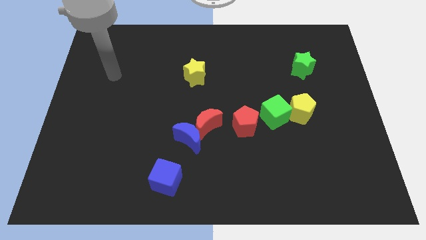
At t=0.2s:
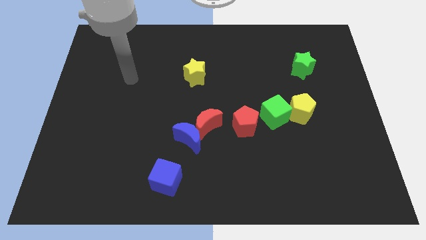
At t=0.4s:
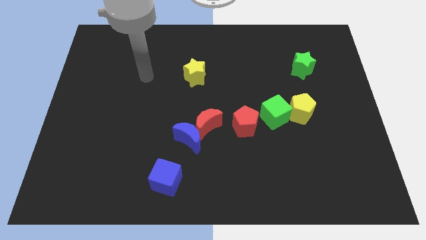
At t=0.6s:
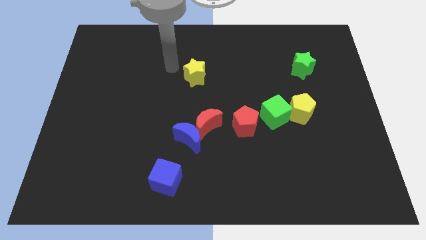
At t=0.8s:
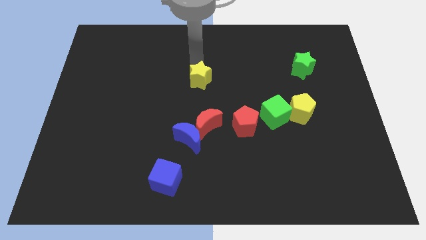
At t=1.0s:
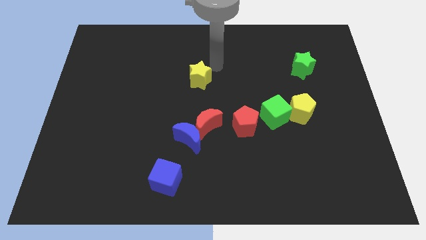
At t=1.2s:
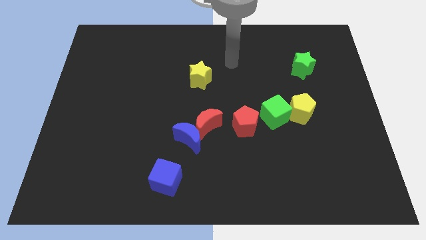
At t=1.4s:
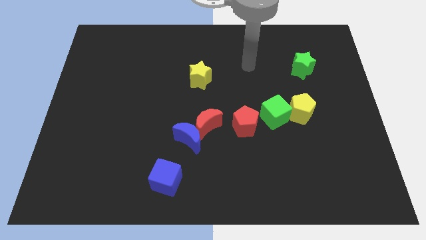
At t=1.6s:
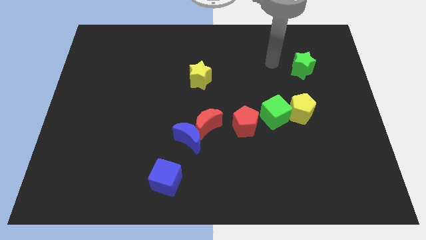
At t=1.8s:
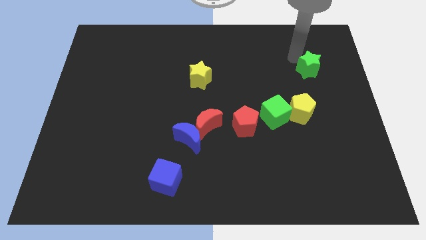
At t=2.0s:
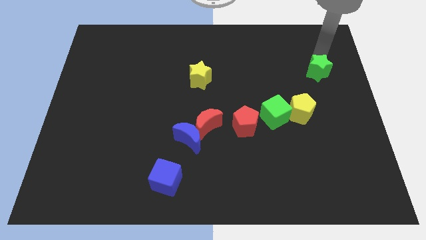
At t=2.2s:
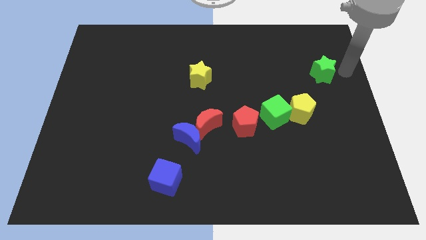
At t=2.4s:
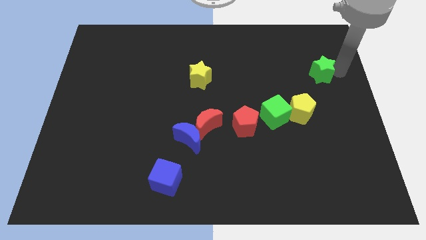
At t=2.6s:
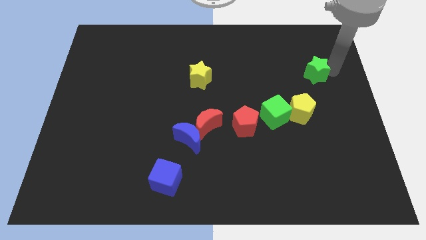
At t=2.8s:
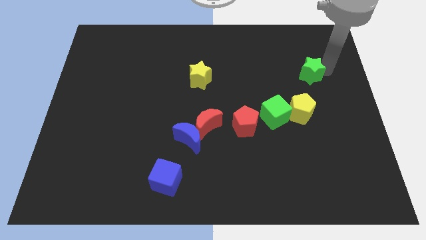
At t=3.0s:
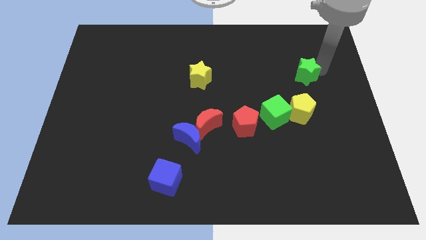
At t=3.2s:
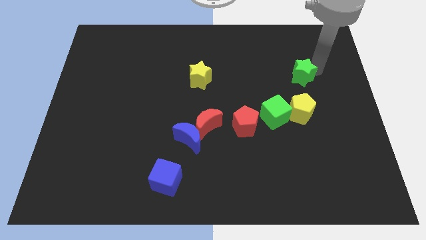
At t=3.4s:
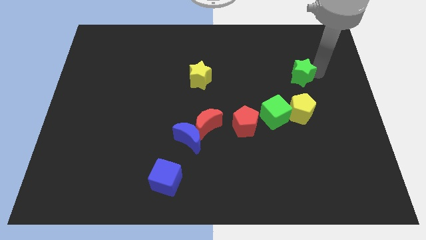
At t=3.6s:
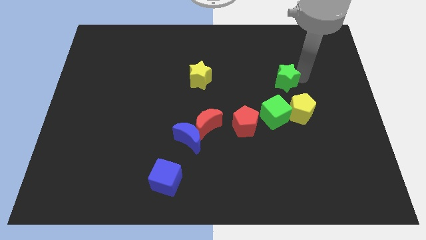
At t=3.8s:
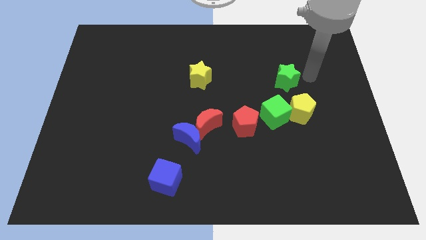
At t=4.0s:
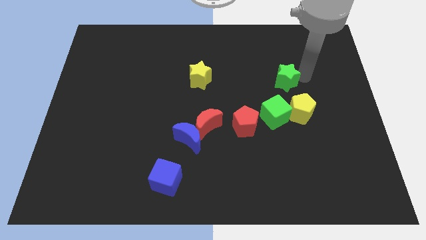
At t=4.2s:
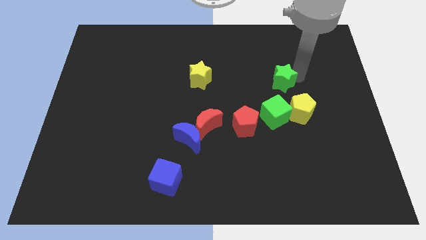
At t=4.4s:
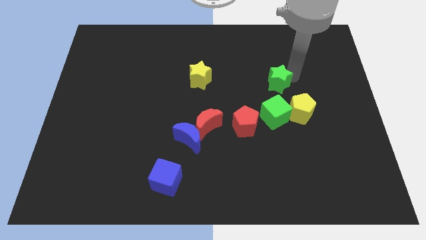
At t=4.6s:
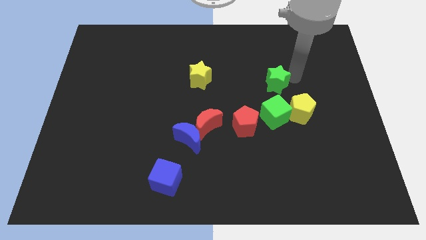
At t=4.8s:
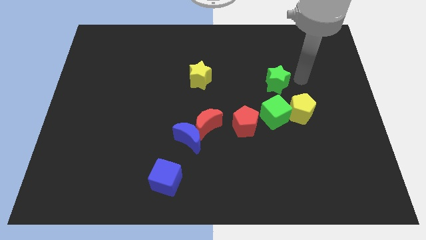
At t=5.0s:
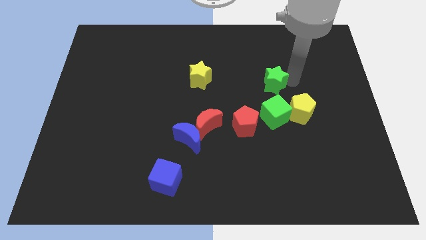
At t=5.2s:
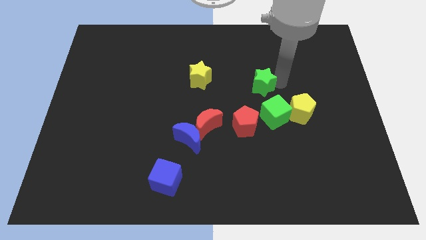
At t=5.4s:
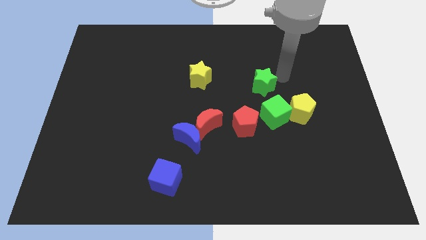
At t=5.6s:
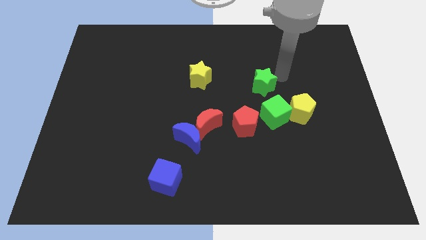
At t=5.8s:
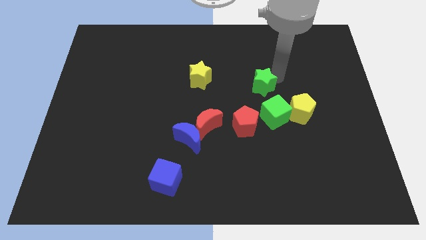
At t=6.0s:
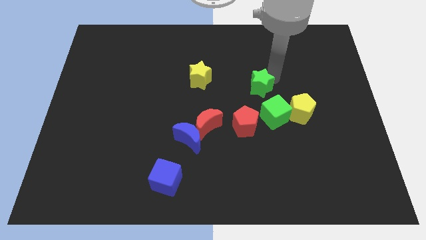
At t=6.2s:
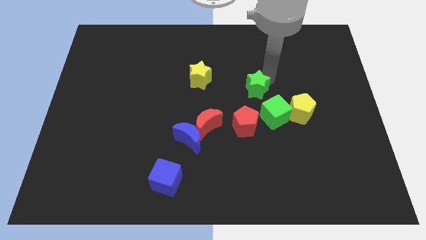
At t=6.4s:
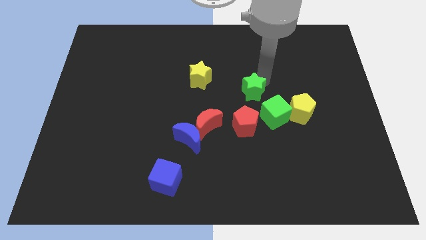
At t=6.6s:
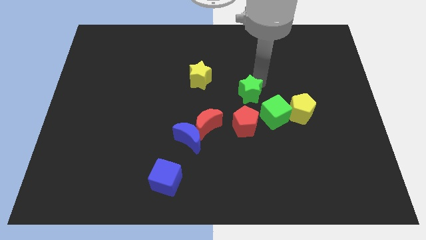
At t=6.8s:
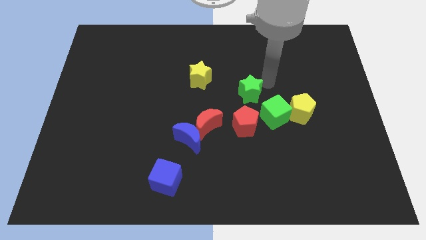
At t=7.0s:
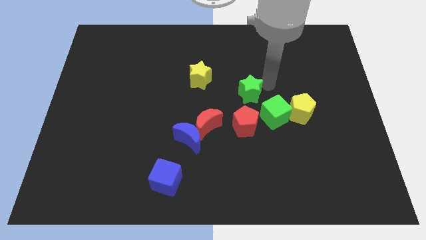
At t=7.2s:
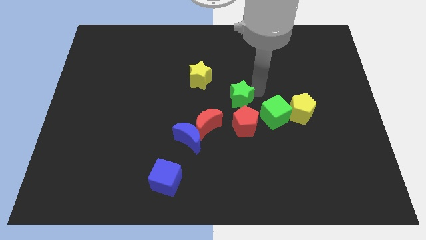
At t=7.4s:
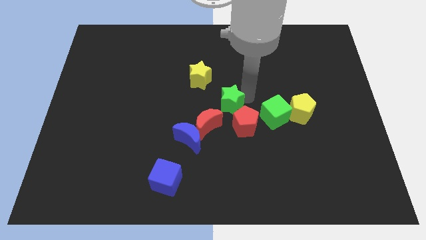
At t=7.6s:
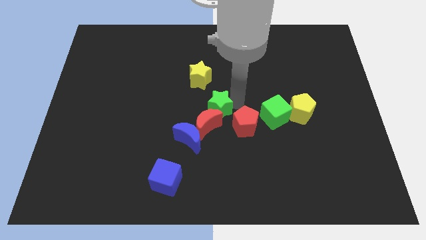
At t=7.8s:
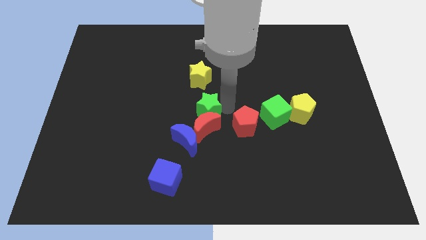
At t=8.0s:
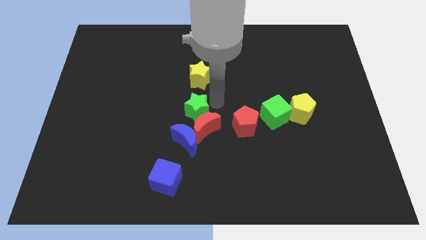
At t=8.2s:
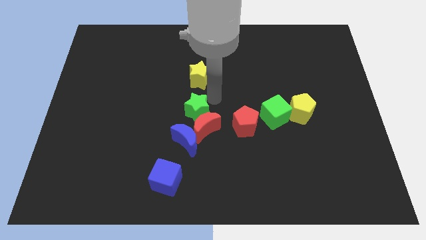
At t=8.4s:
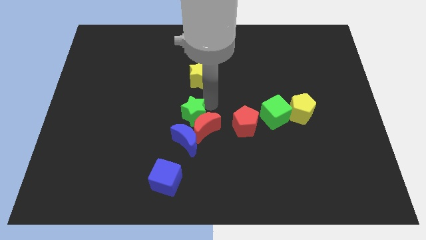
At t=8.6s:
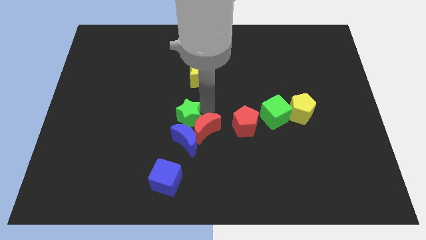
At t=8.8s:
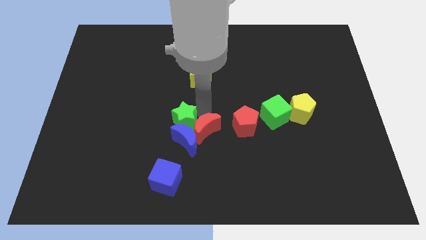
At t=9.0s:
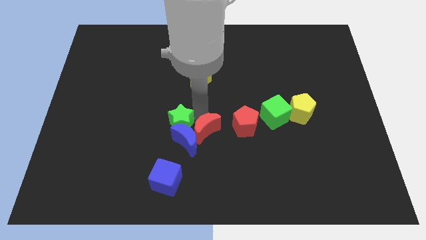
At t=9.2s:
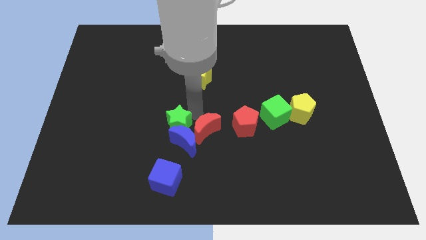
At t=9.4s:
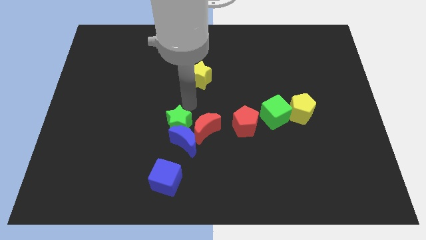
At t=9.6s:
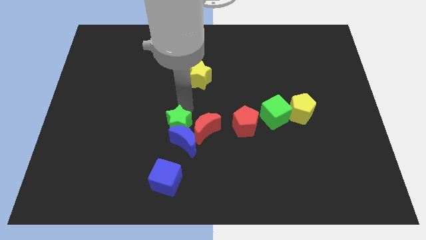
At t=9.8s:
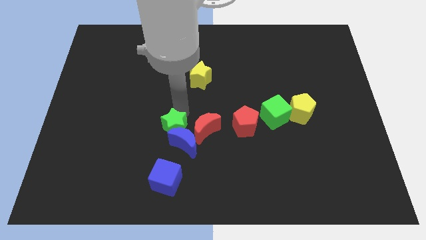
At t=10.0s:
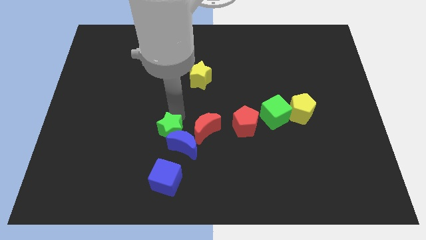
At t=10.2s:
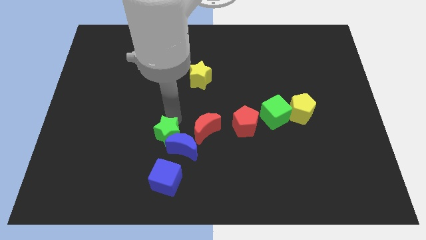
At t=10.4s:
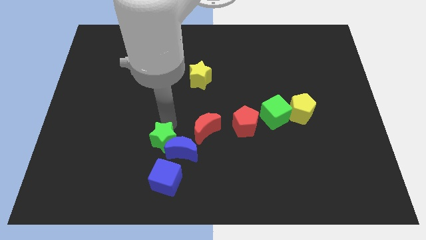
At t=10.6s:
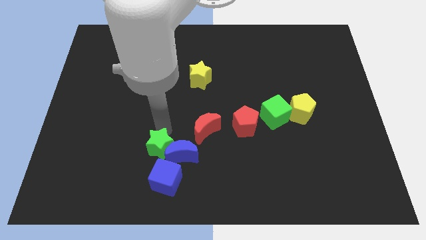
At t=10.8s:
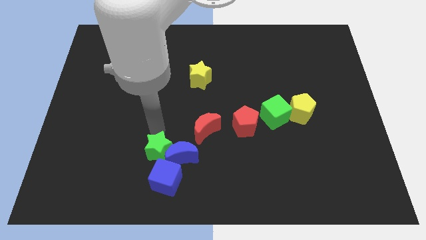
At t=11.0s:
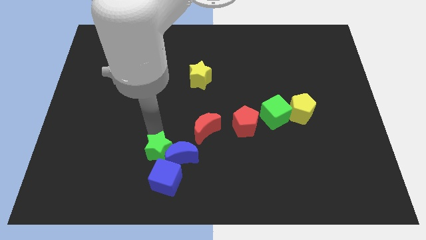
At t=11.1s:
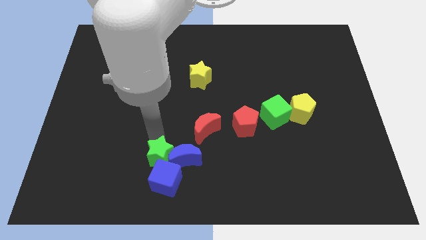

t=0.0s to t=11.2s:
move the green star next to the blue cube

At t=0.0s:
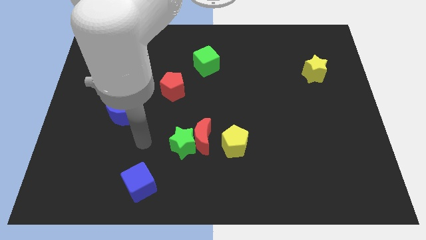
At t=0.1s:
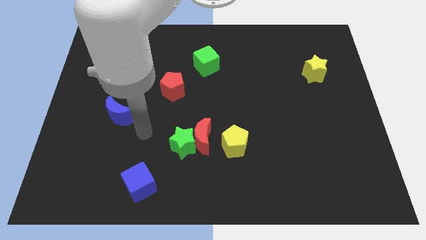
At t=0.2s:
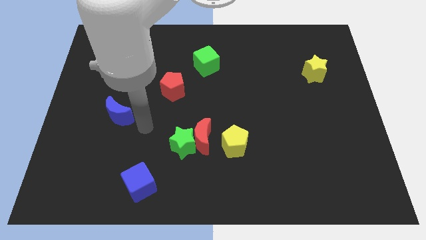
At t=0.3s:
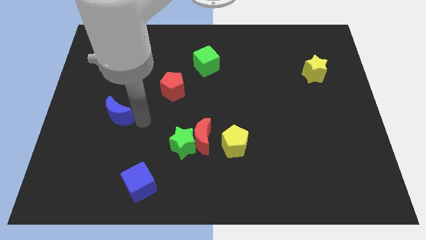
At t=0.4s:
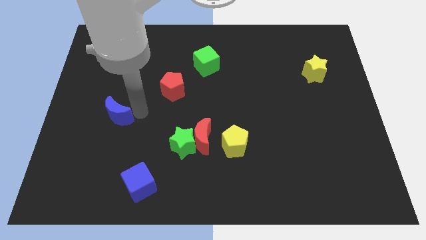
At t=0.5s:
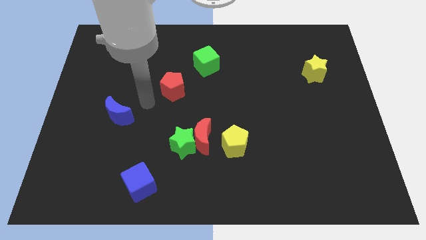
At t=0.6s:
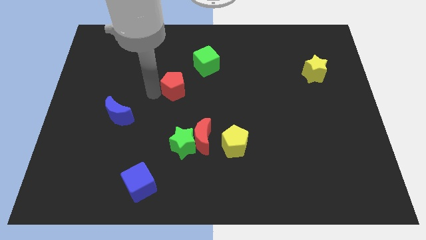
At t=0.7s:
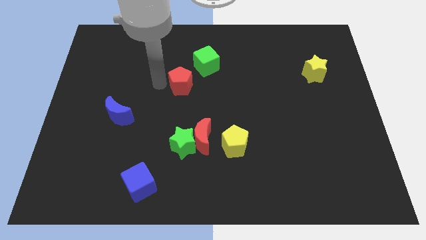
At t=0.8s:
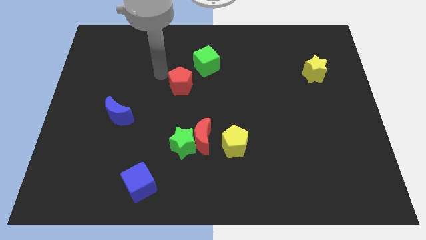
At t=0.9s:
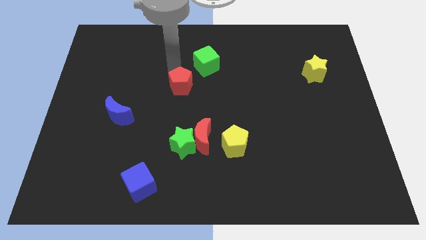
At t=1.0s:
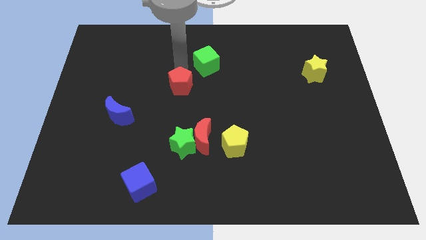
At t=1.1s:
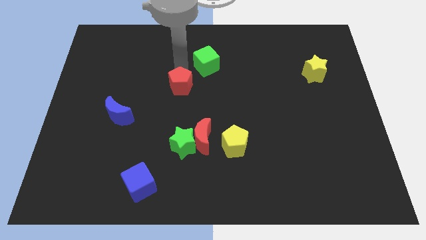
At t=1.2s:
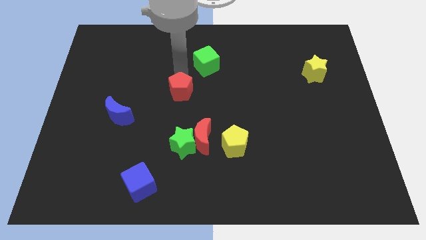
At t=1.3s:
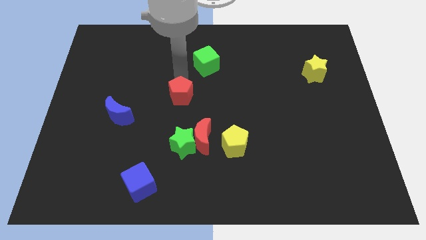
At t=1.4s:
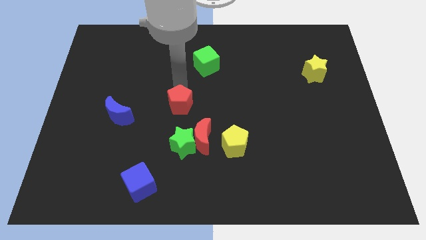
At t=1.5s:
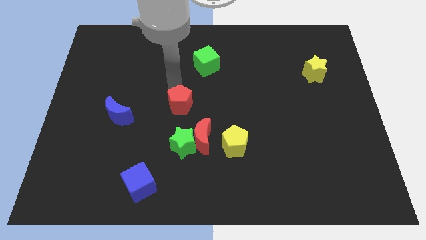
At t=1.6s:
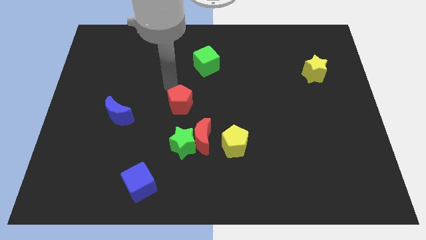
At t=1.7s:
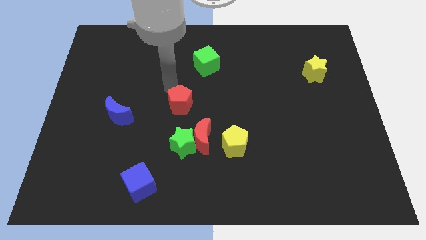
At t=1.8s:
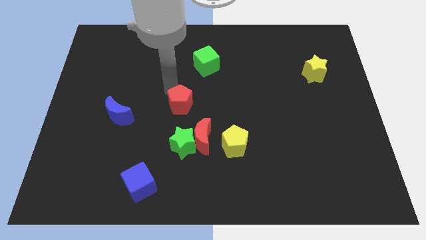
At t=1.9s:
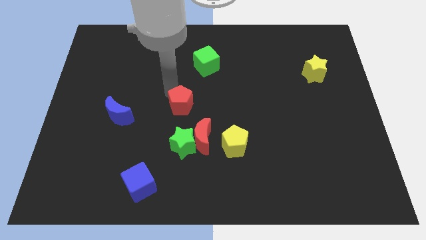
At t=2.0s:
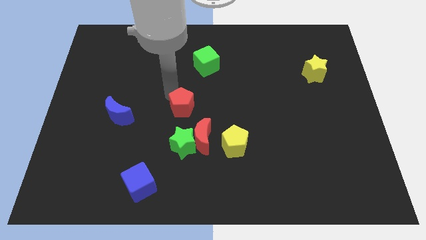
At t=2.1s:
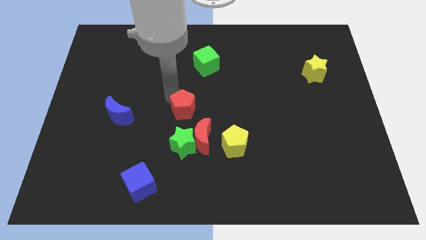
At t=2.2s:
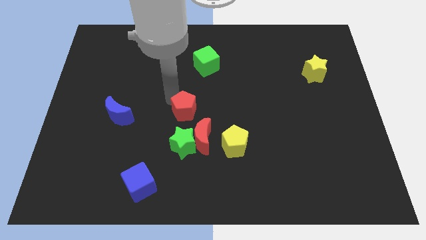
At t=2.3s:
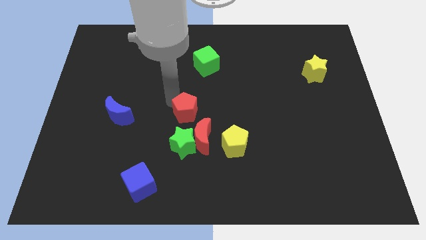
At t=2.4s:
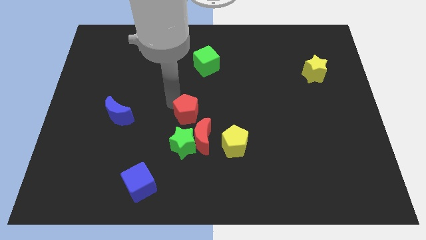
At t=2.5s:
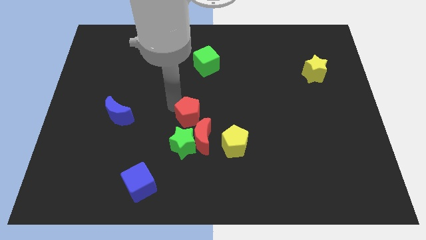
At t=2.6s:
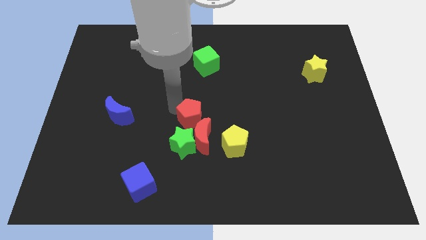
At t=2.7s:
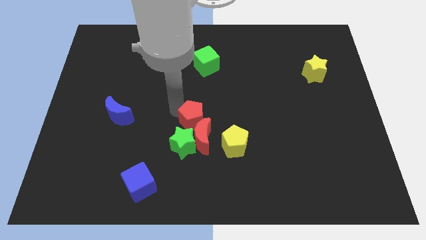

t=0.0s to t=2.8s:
push the red pentagon to the red moon
